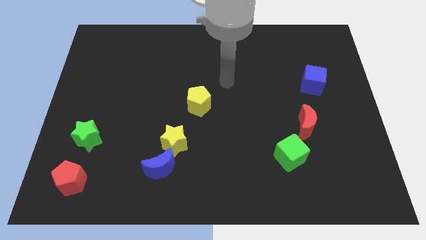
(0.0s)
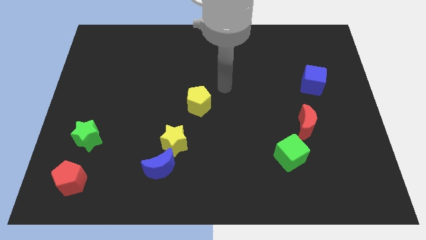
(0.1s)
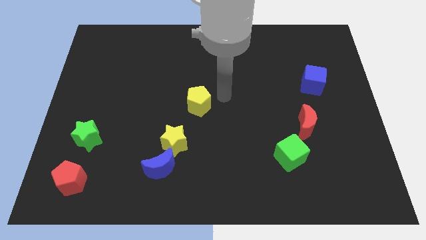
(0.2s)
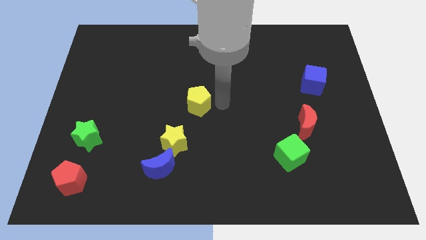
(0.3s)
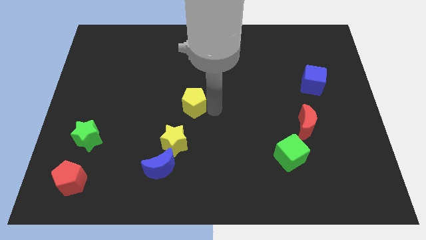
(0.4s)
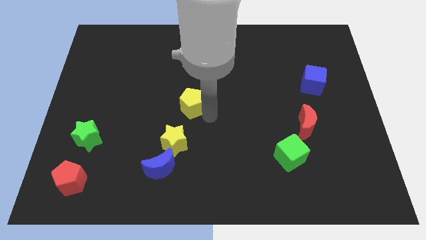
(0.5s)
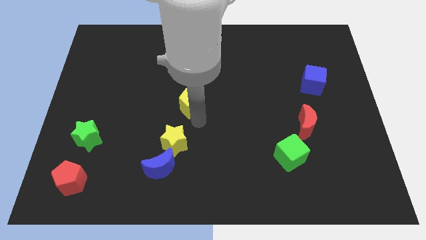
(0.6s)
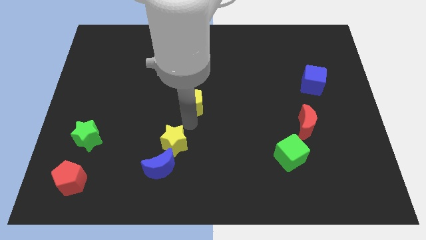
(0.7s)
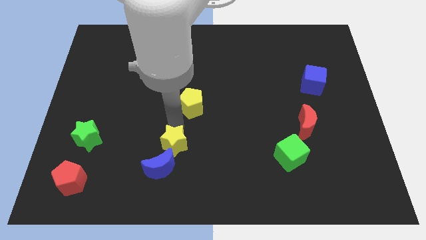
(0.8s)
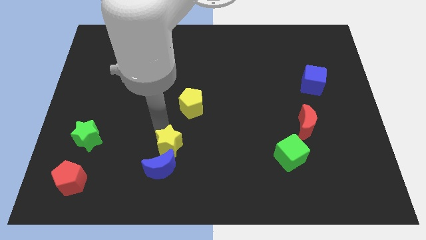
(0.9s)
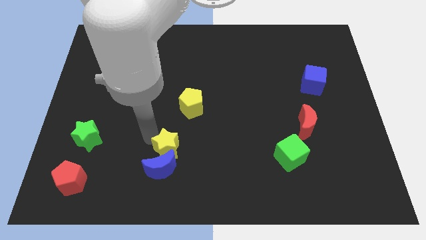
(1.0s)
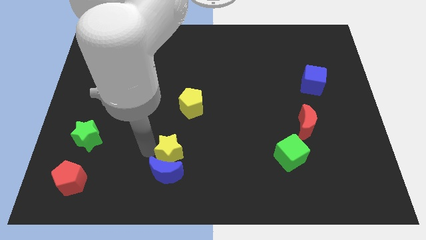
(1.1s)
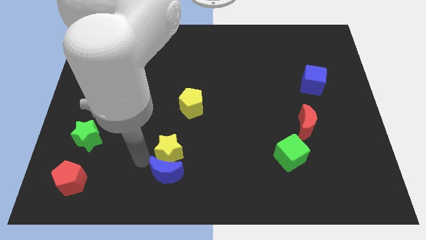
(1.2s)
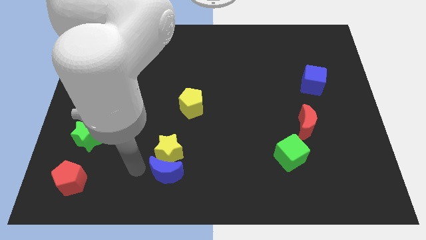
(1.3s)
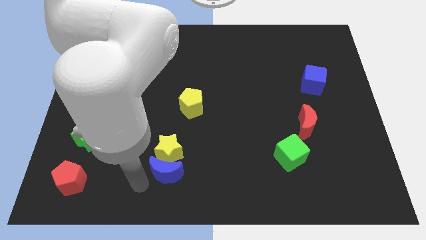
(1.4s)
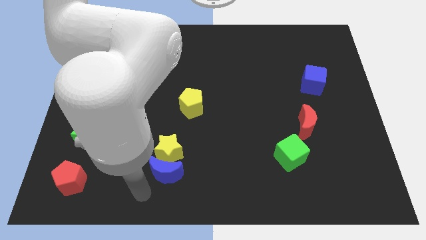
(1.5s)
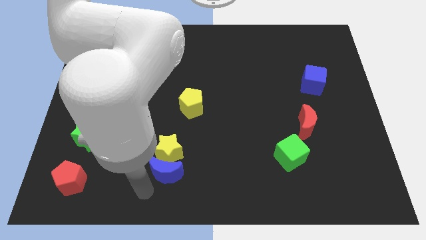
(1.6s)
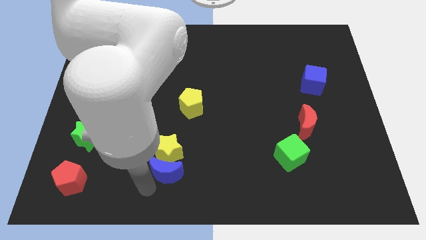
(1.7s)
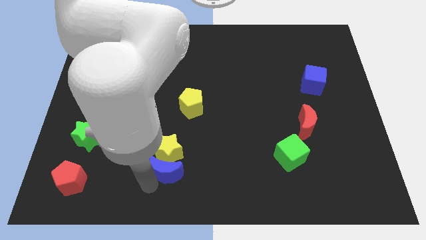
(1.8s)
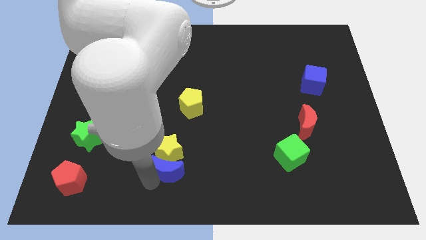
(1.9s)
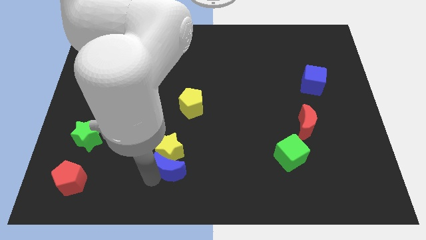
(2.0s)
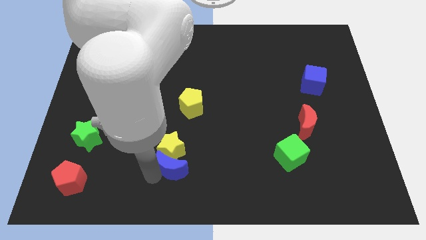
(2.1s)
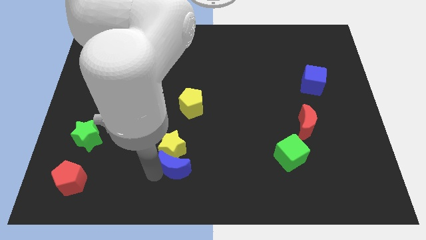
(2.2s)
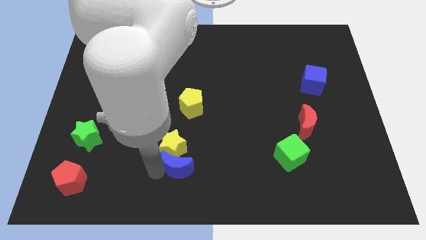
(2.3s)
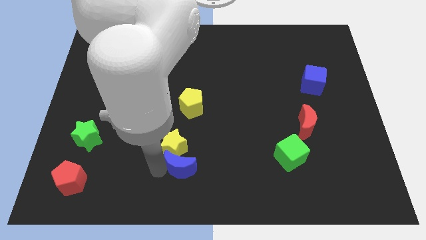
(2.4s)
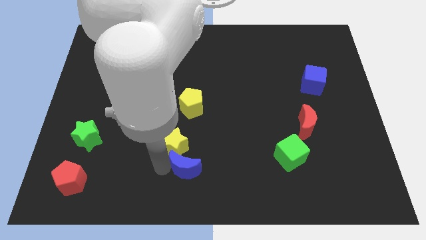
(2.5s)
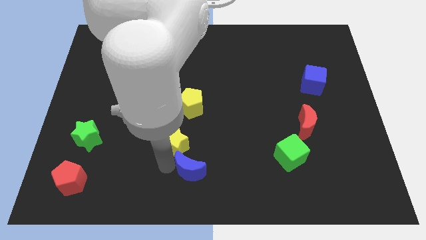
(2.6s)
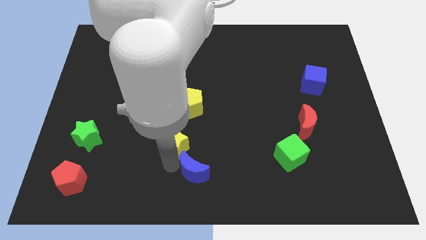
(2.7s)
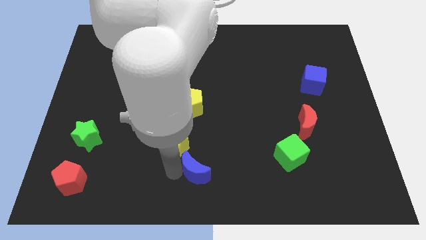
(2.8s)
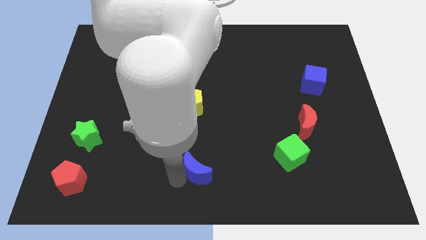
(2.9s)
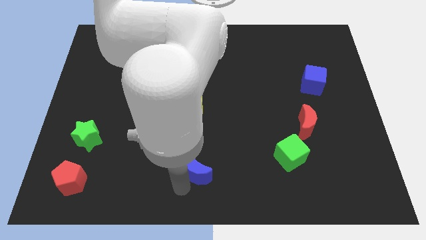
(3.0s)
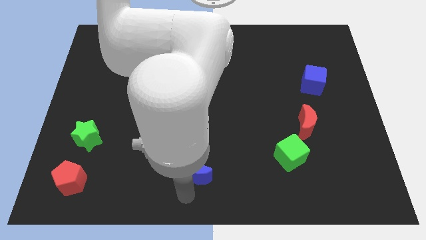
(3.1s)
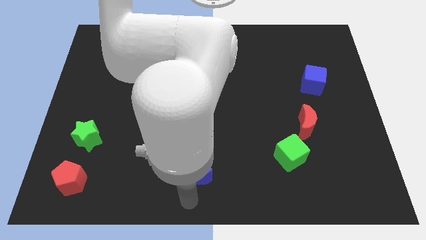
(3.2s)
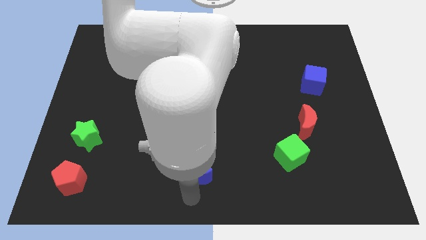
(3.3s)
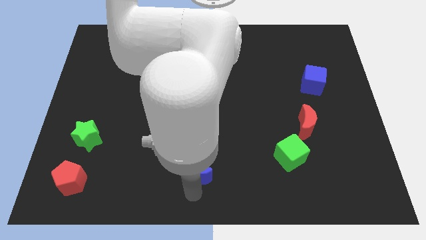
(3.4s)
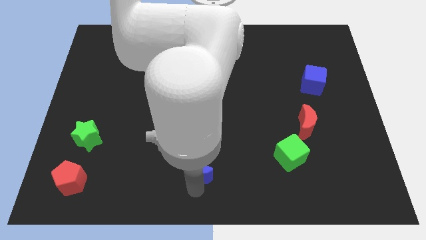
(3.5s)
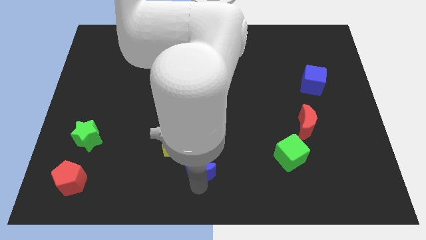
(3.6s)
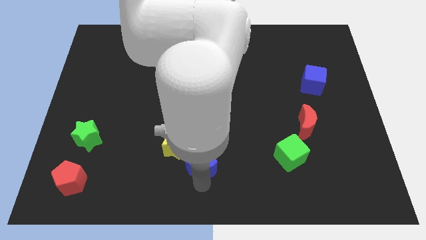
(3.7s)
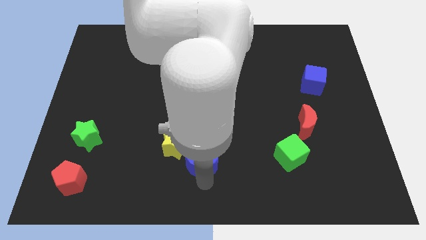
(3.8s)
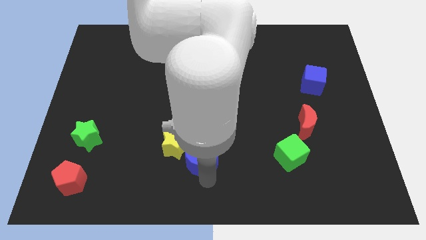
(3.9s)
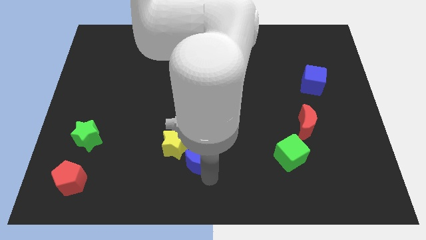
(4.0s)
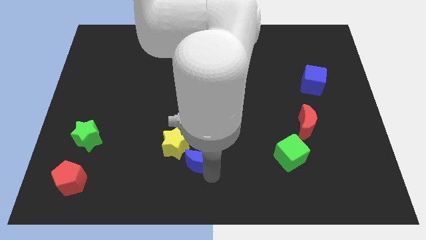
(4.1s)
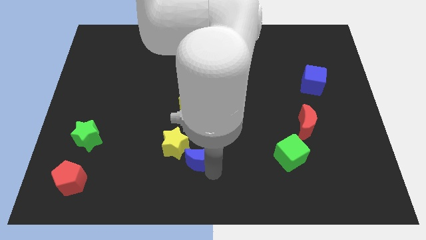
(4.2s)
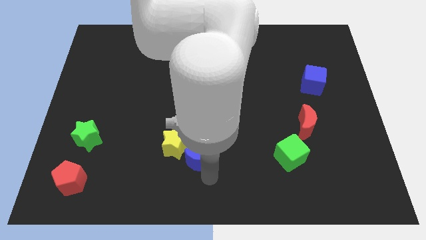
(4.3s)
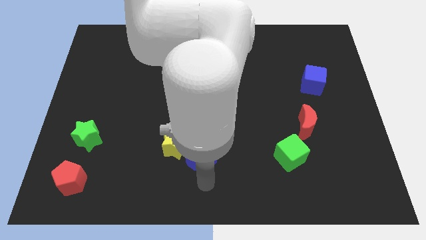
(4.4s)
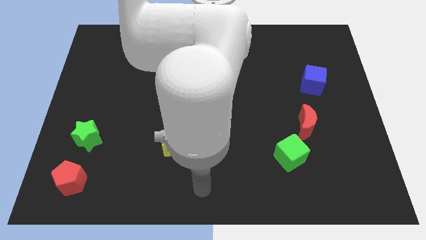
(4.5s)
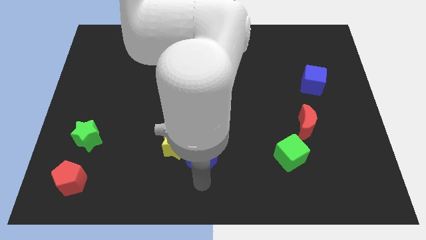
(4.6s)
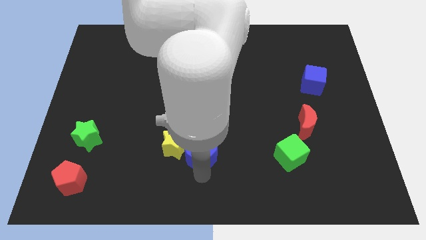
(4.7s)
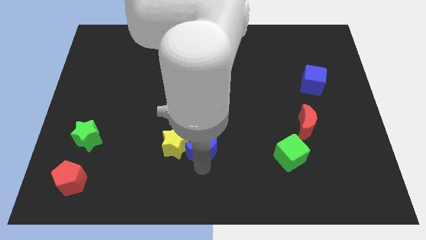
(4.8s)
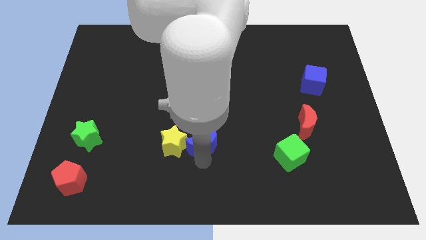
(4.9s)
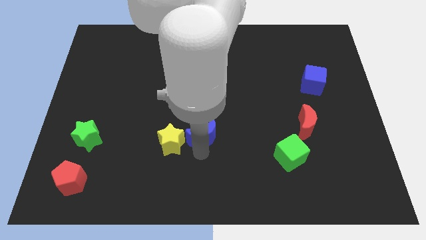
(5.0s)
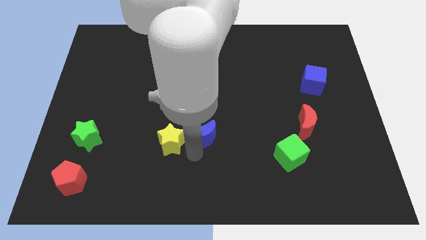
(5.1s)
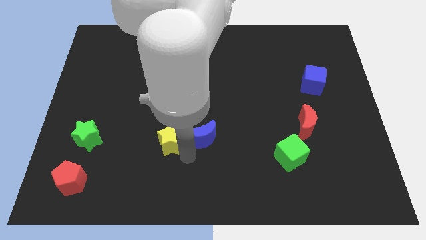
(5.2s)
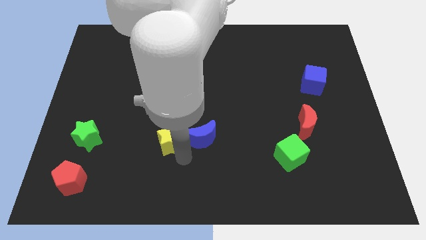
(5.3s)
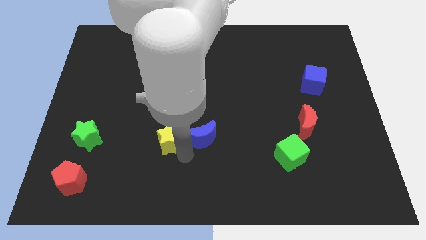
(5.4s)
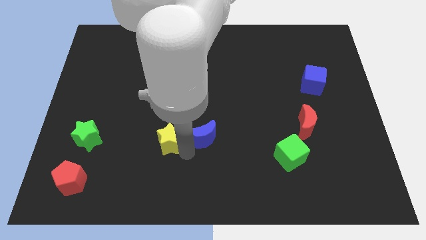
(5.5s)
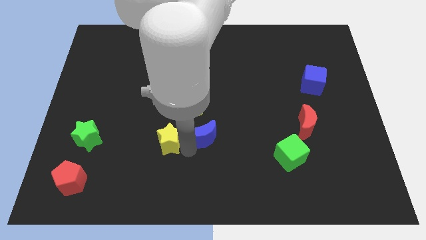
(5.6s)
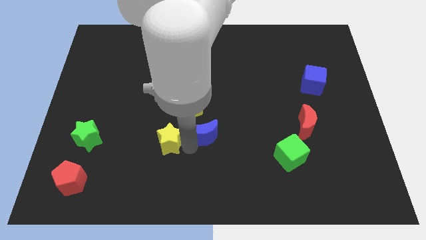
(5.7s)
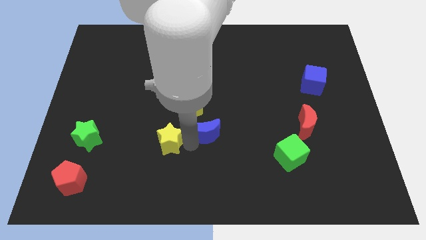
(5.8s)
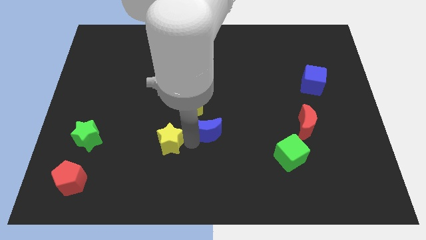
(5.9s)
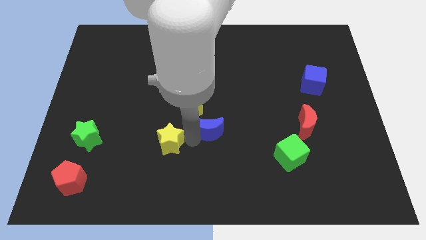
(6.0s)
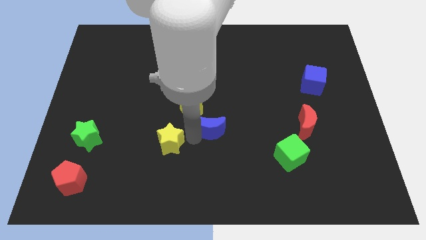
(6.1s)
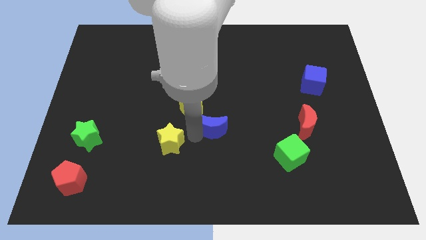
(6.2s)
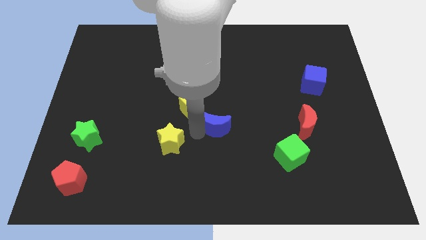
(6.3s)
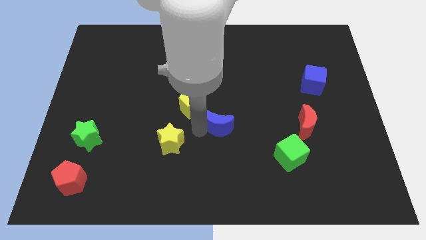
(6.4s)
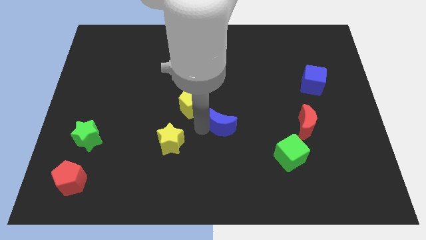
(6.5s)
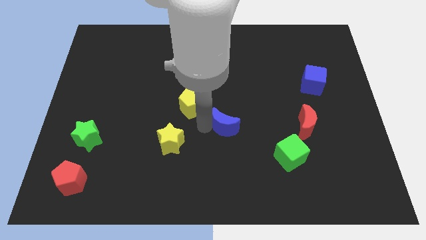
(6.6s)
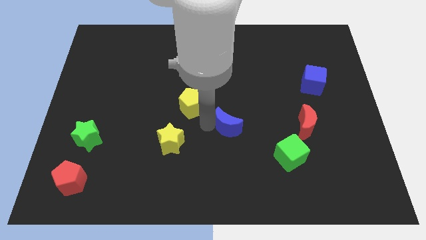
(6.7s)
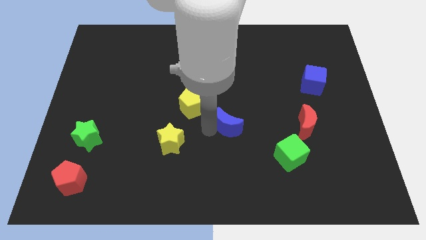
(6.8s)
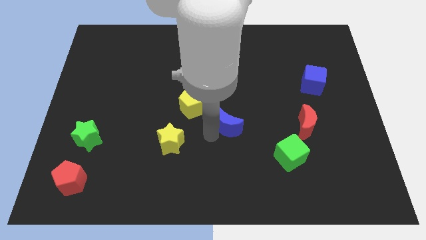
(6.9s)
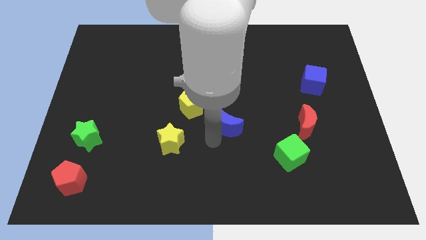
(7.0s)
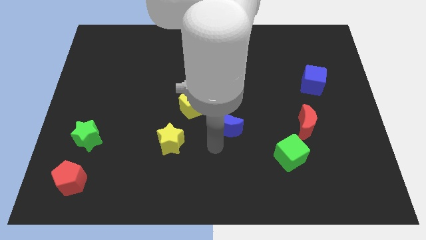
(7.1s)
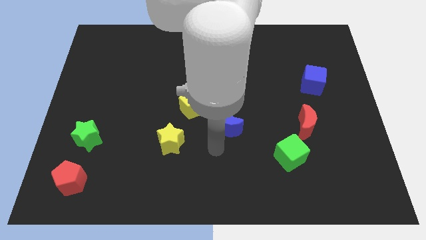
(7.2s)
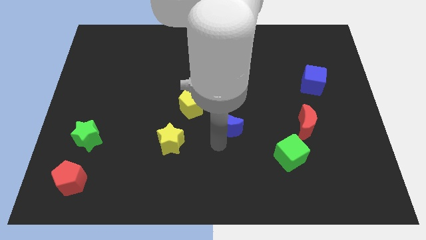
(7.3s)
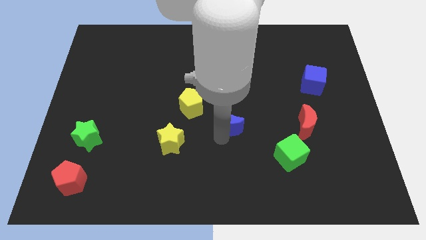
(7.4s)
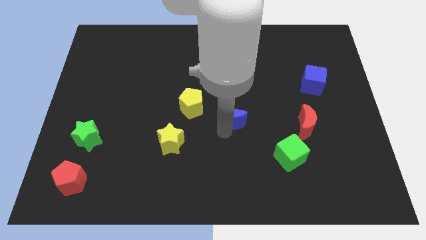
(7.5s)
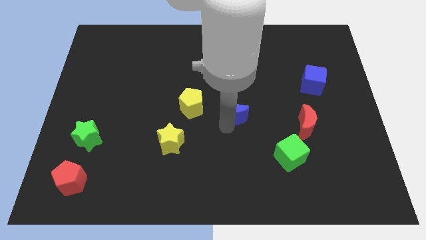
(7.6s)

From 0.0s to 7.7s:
push the blue moon upwards and right diagonally
